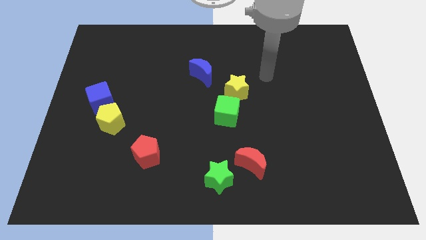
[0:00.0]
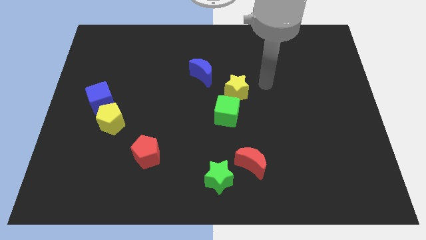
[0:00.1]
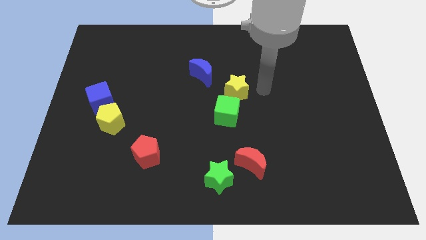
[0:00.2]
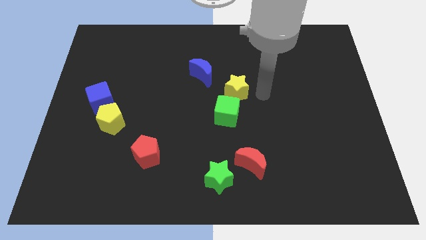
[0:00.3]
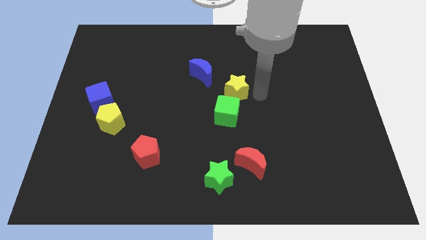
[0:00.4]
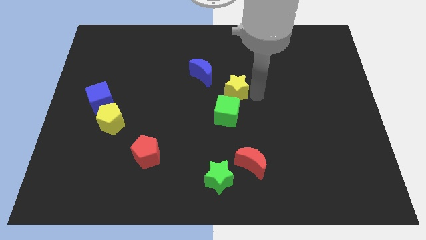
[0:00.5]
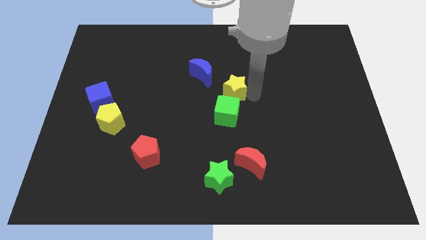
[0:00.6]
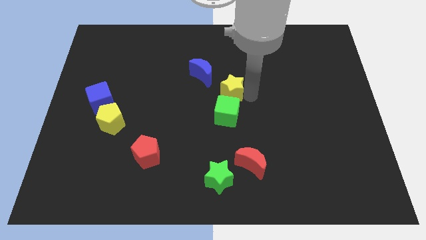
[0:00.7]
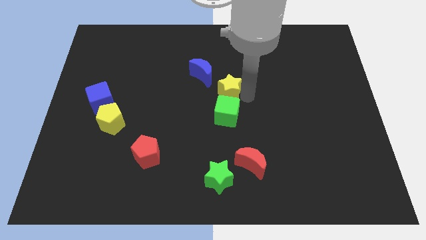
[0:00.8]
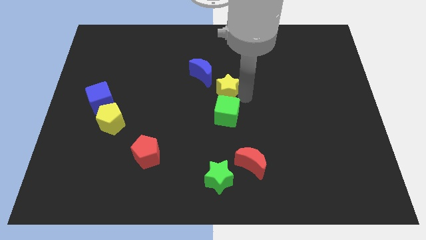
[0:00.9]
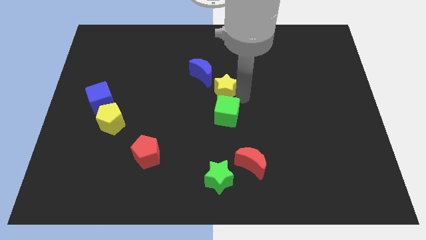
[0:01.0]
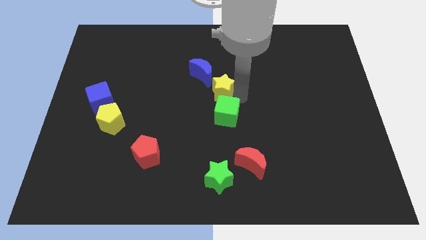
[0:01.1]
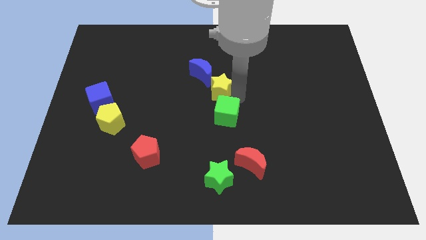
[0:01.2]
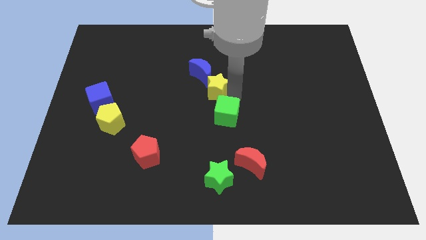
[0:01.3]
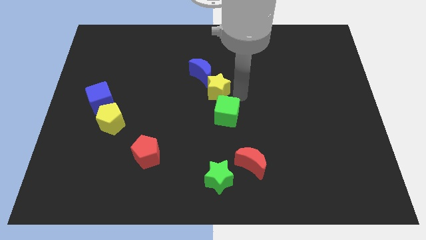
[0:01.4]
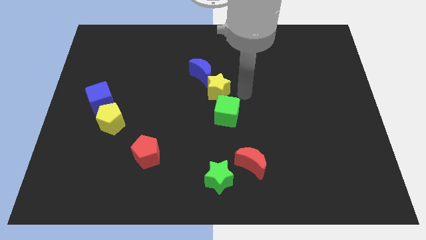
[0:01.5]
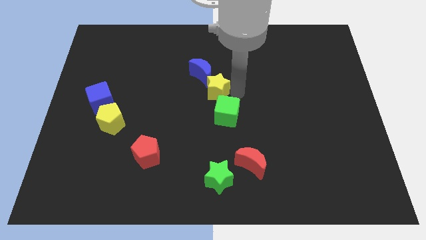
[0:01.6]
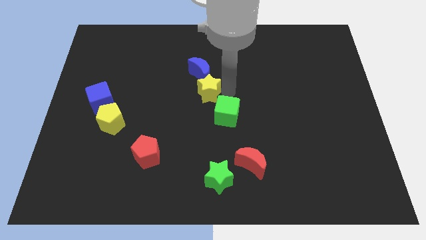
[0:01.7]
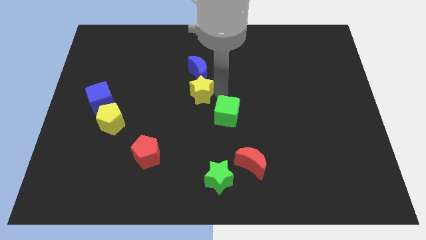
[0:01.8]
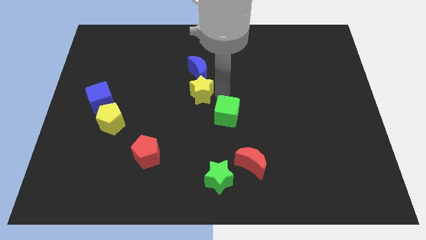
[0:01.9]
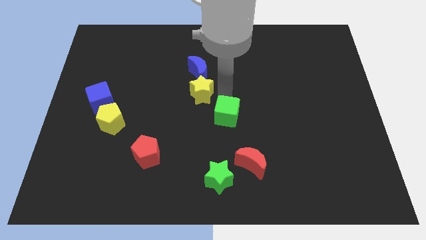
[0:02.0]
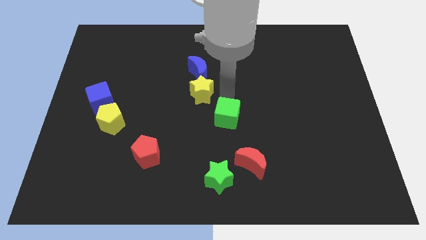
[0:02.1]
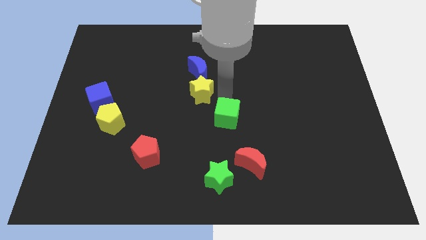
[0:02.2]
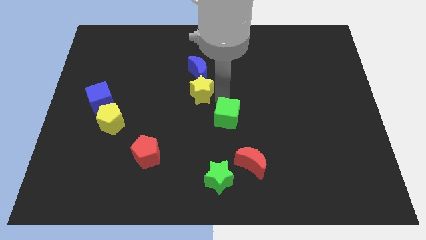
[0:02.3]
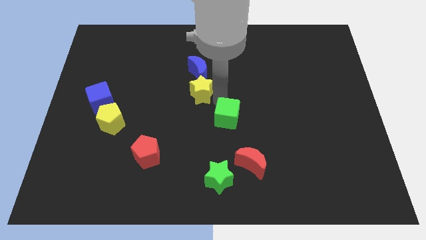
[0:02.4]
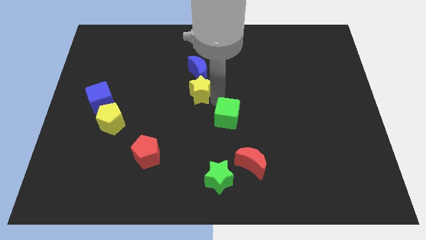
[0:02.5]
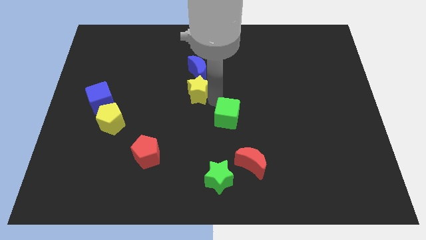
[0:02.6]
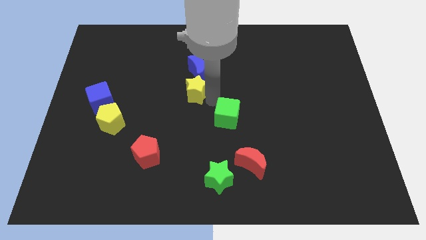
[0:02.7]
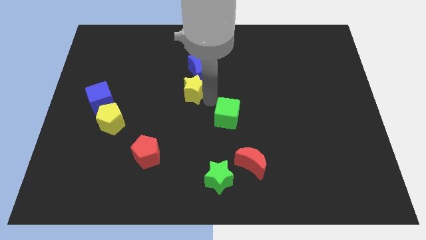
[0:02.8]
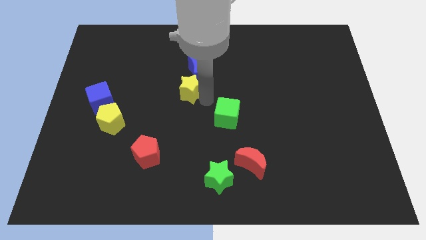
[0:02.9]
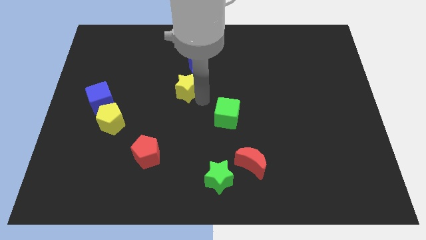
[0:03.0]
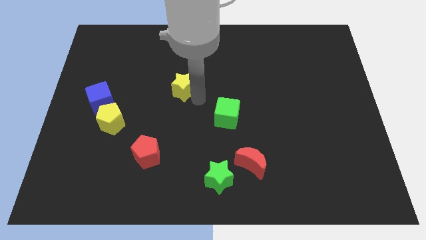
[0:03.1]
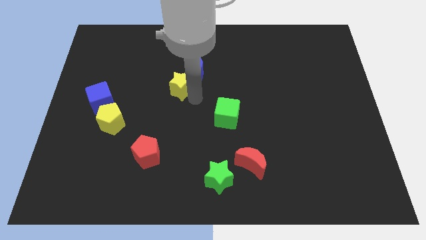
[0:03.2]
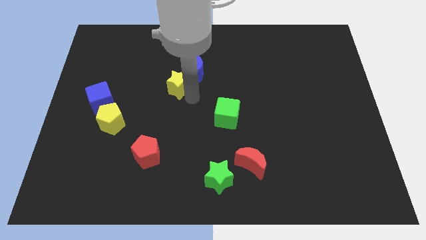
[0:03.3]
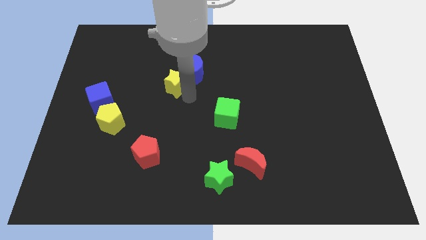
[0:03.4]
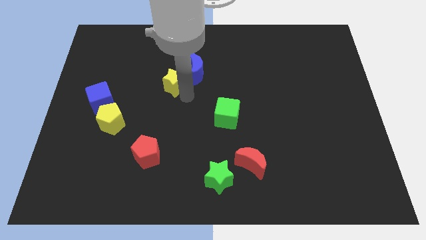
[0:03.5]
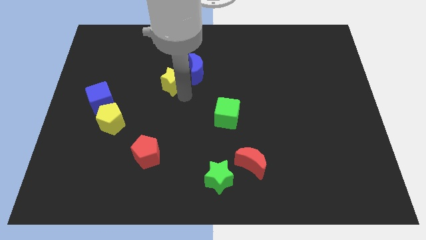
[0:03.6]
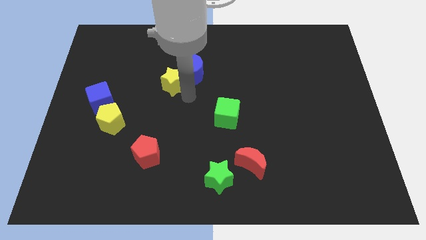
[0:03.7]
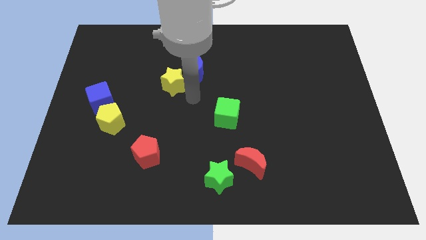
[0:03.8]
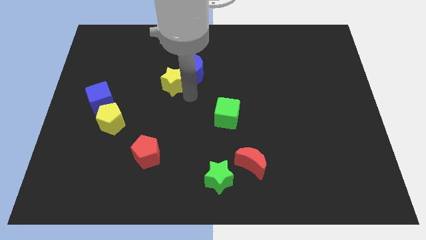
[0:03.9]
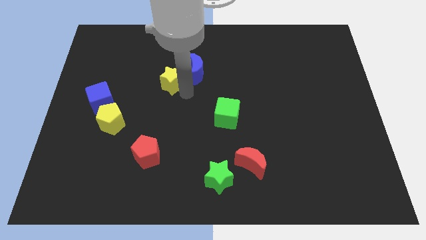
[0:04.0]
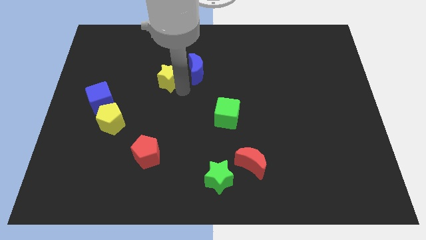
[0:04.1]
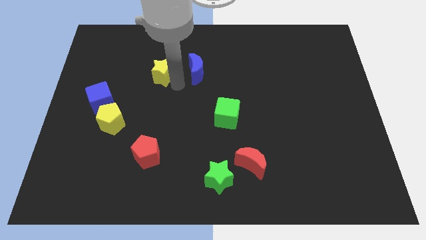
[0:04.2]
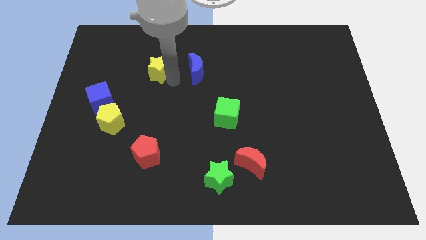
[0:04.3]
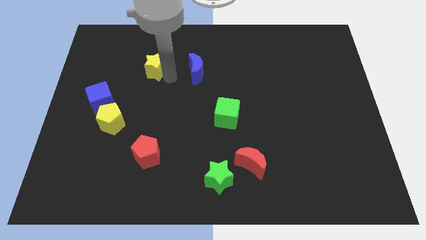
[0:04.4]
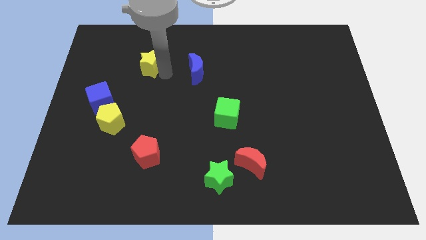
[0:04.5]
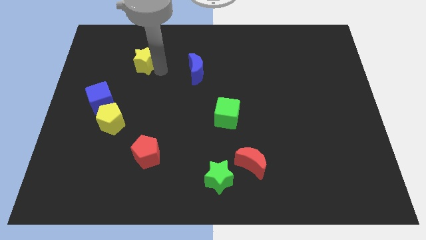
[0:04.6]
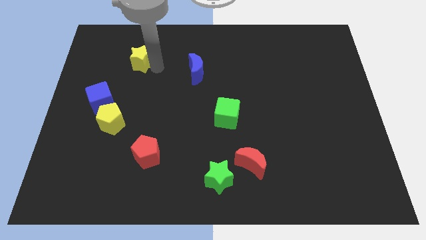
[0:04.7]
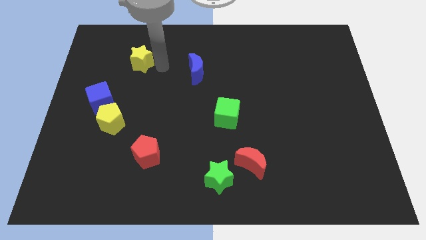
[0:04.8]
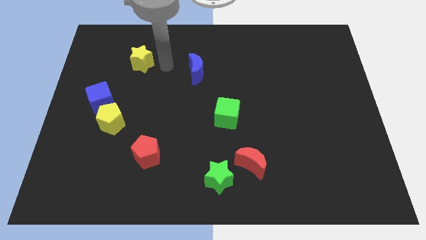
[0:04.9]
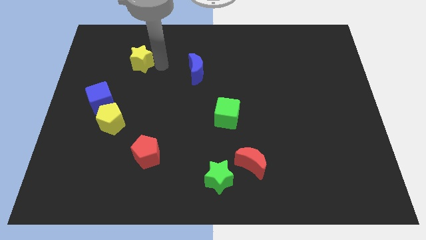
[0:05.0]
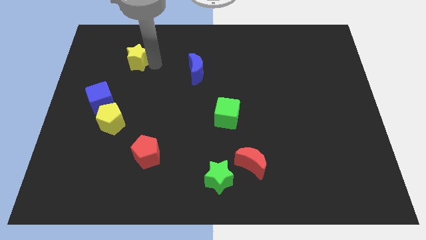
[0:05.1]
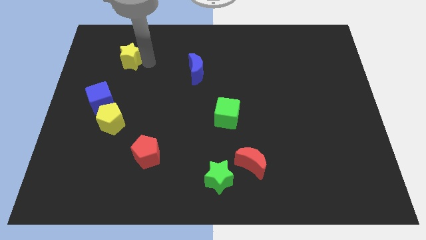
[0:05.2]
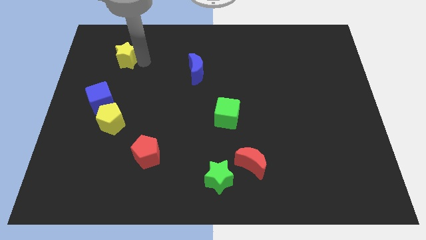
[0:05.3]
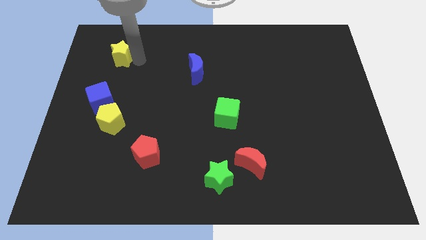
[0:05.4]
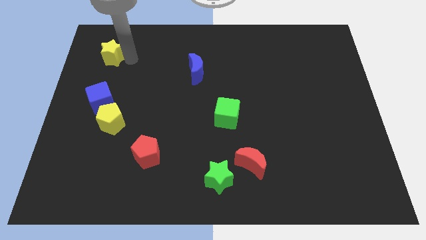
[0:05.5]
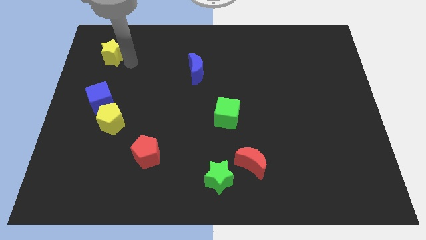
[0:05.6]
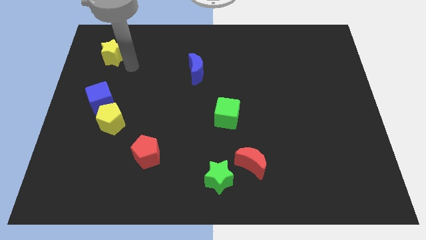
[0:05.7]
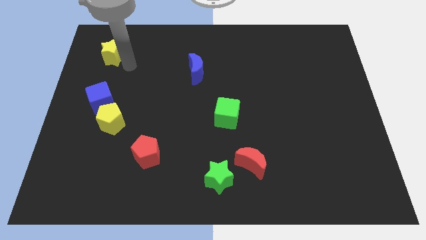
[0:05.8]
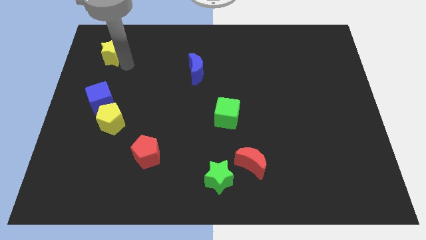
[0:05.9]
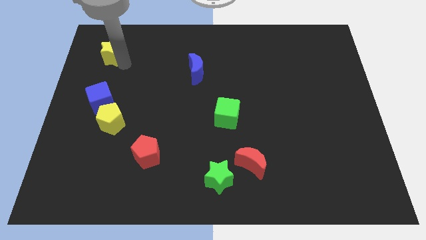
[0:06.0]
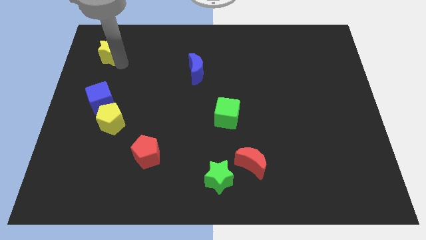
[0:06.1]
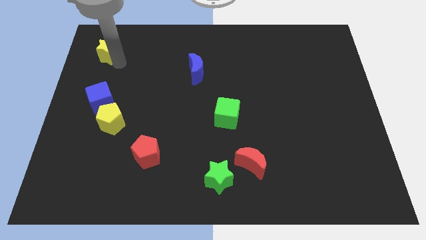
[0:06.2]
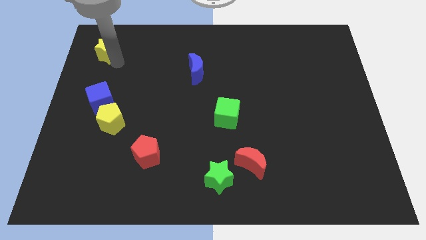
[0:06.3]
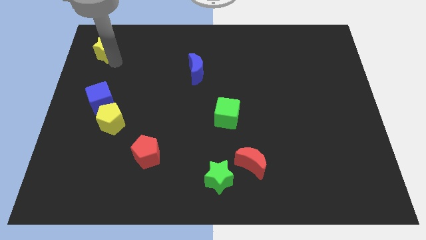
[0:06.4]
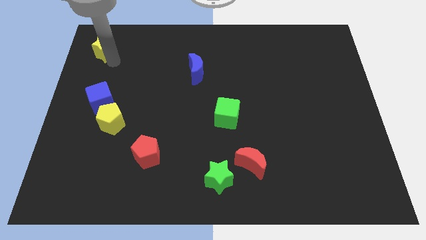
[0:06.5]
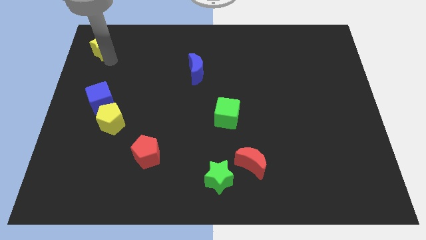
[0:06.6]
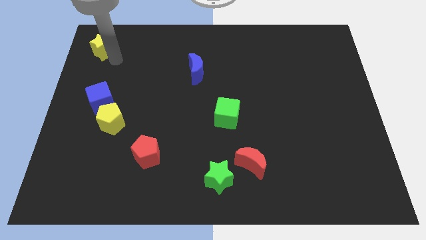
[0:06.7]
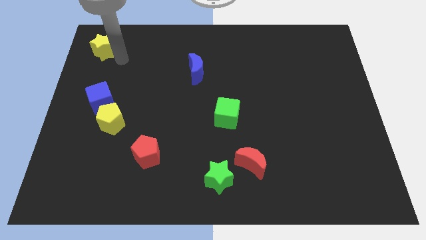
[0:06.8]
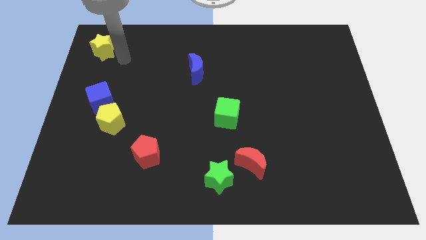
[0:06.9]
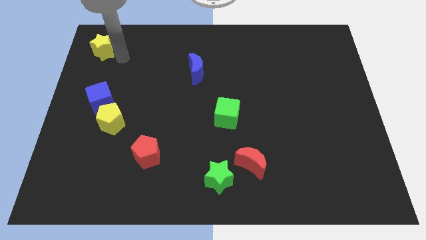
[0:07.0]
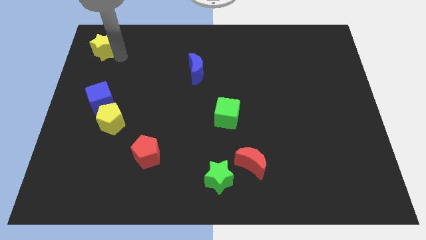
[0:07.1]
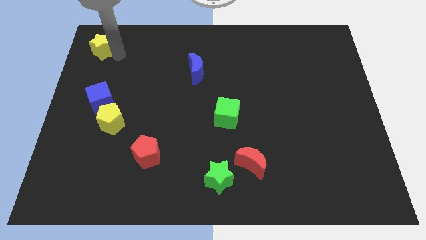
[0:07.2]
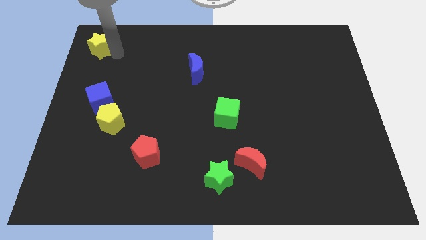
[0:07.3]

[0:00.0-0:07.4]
move the yellow star to the top left corner
